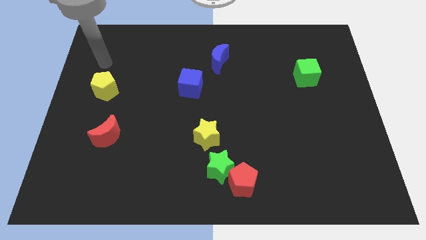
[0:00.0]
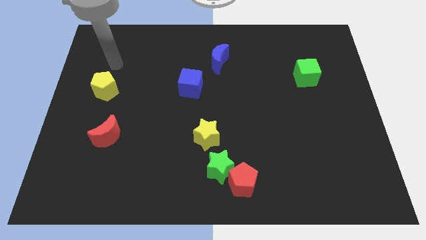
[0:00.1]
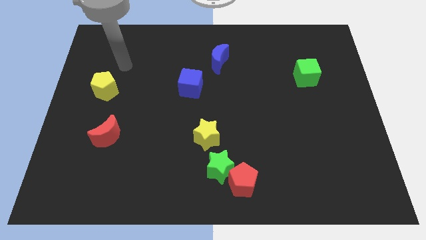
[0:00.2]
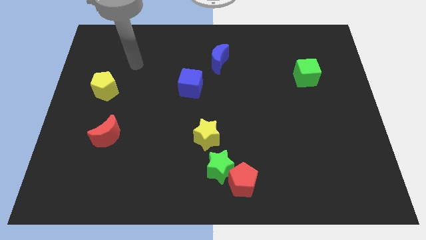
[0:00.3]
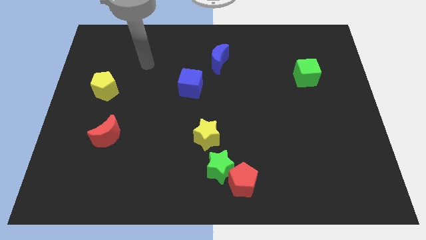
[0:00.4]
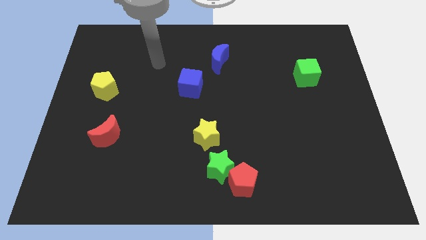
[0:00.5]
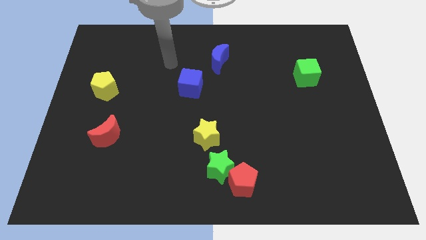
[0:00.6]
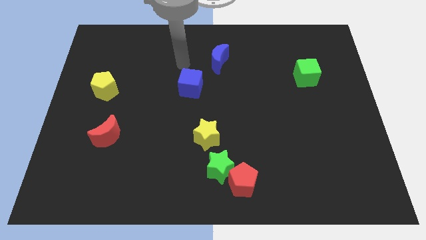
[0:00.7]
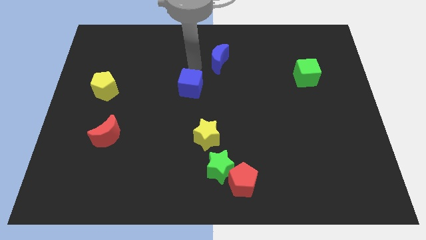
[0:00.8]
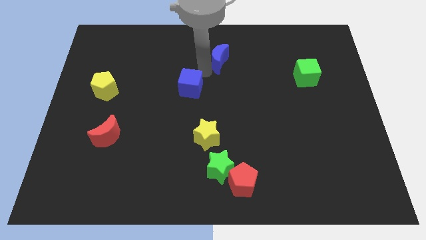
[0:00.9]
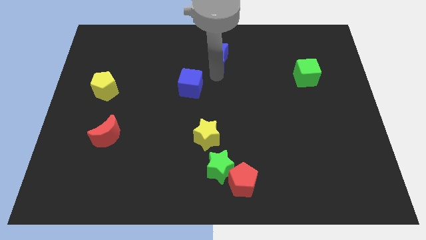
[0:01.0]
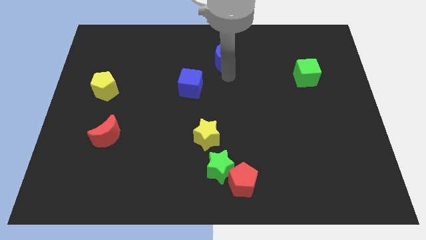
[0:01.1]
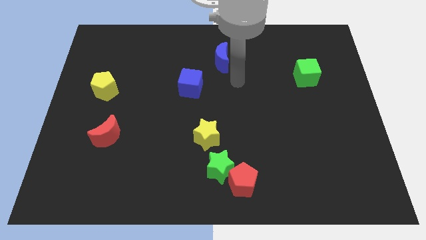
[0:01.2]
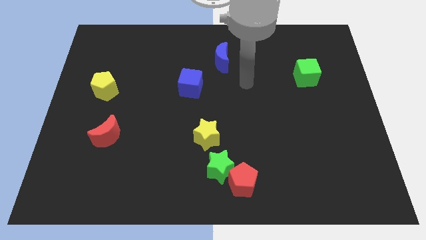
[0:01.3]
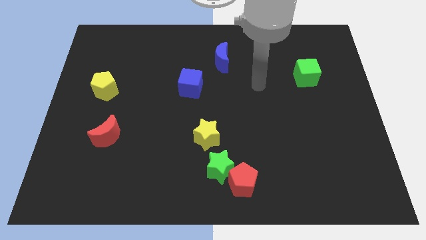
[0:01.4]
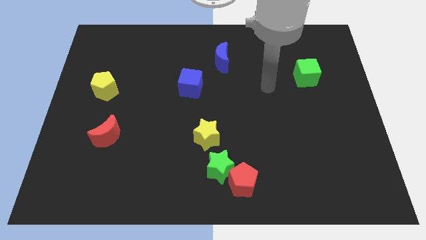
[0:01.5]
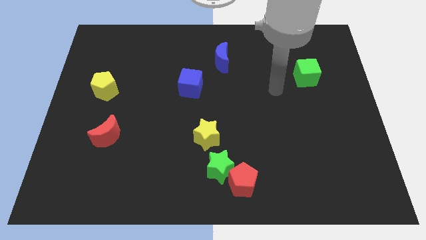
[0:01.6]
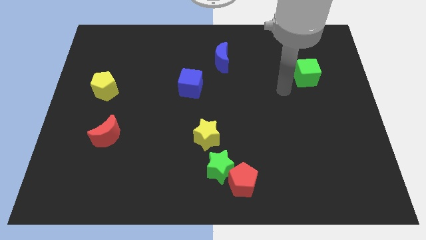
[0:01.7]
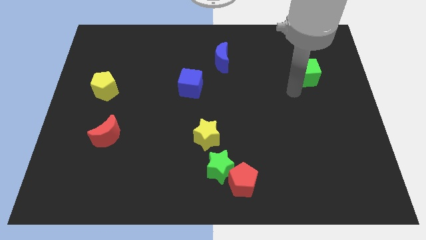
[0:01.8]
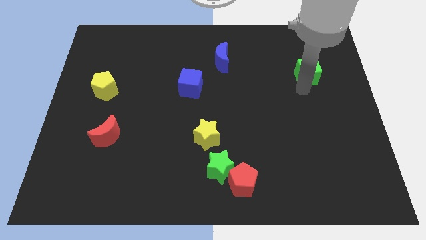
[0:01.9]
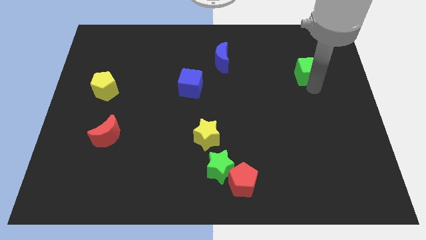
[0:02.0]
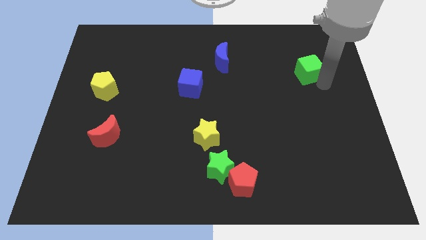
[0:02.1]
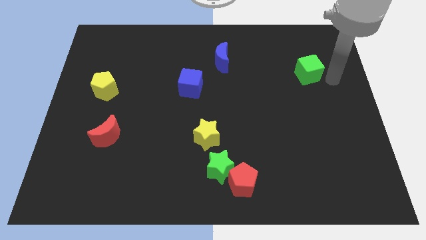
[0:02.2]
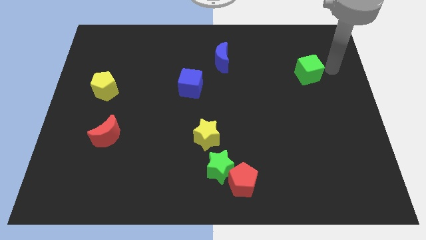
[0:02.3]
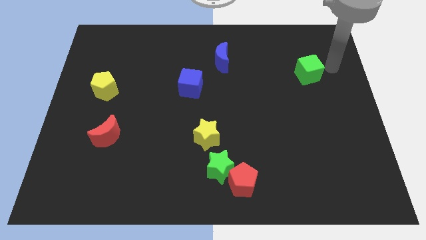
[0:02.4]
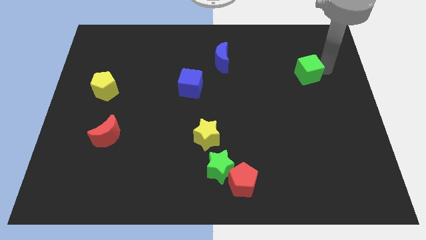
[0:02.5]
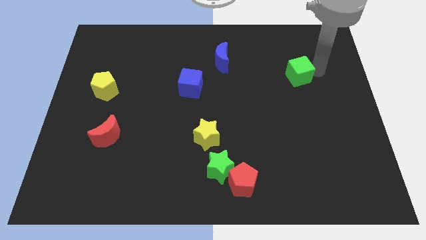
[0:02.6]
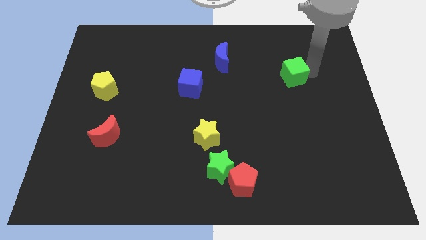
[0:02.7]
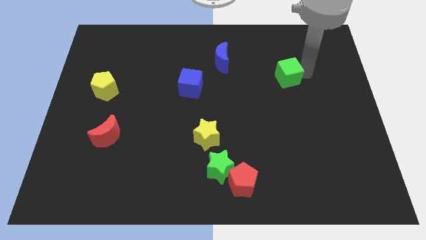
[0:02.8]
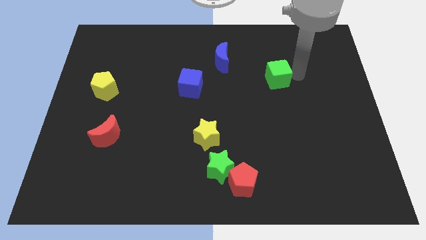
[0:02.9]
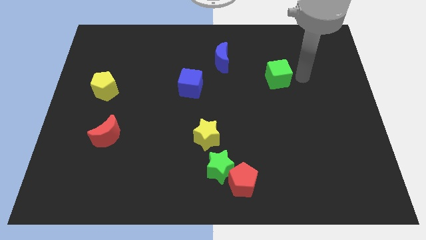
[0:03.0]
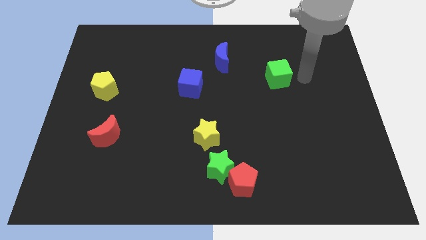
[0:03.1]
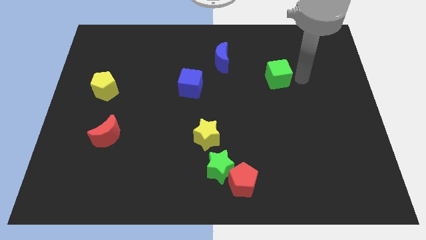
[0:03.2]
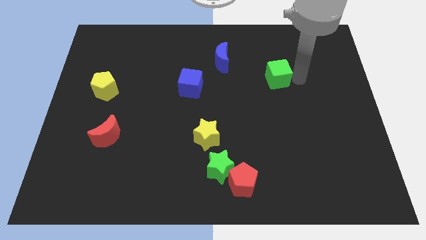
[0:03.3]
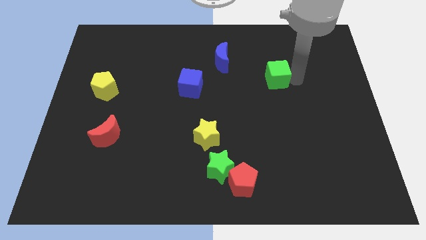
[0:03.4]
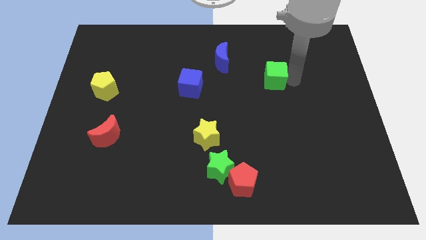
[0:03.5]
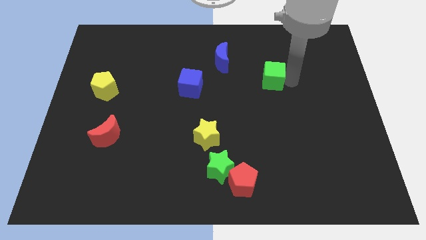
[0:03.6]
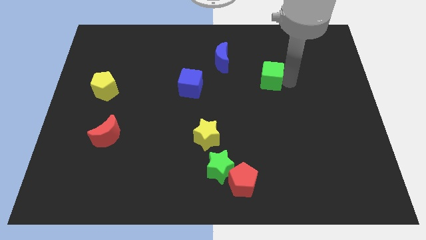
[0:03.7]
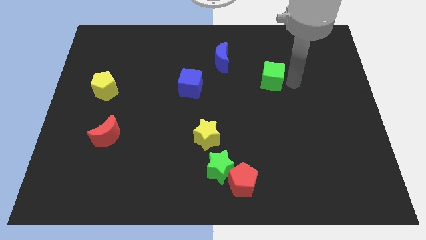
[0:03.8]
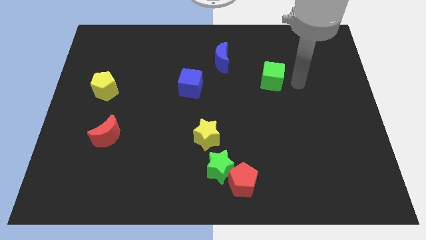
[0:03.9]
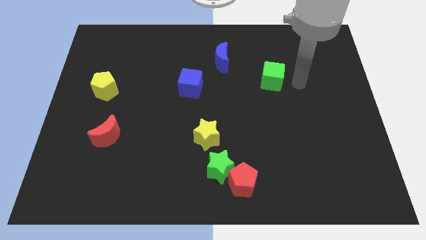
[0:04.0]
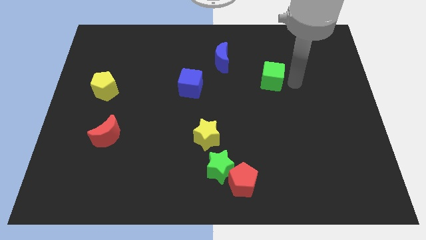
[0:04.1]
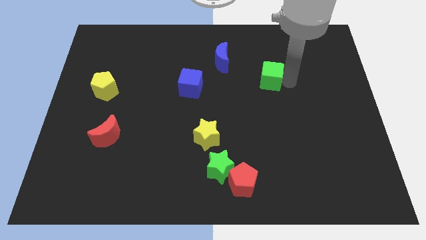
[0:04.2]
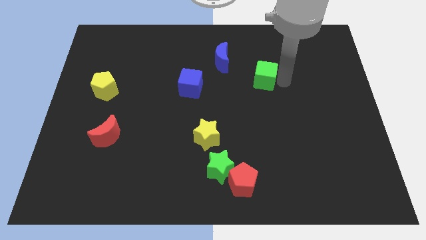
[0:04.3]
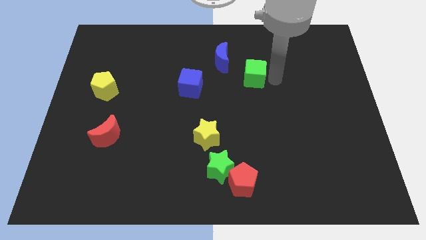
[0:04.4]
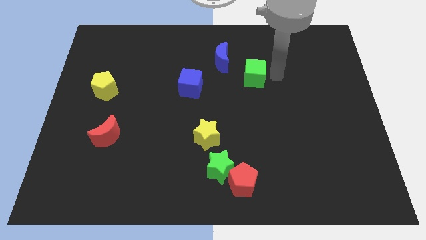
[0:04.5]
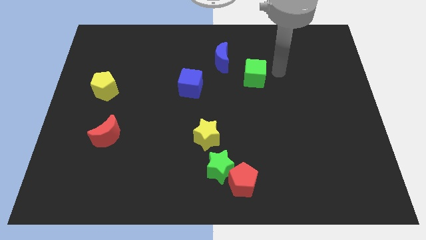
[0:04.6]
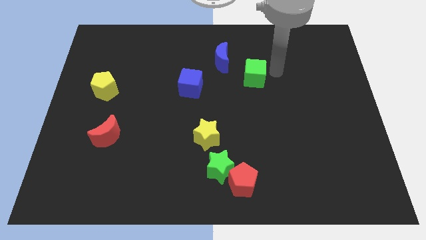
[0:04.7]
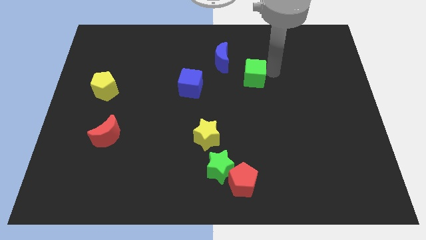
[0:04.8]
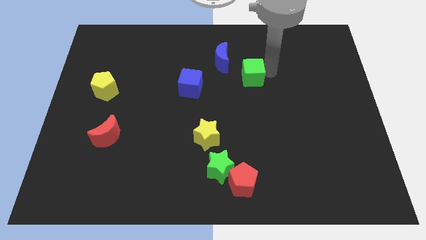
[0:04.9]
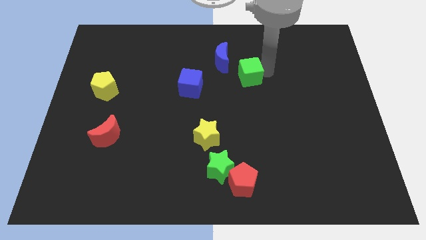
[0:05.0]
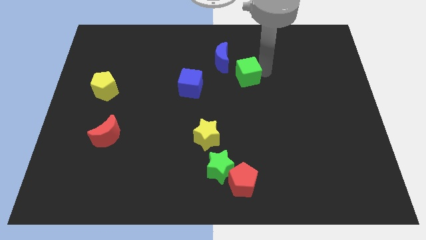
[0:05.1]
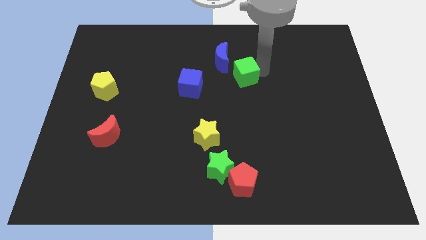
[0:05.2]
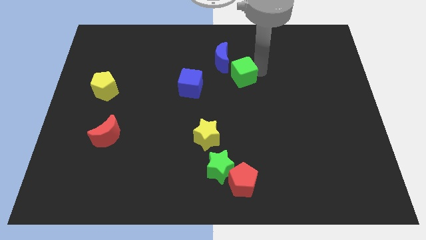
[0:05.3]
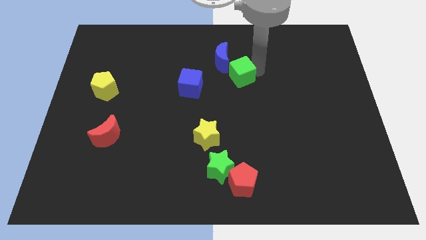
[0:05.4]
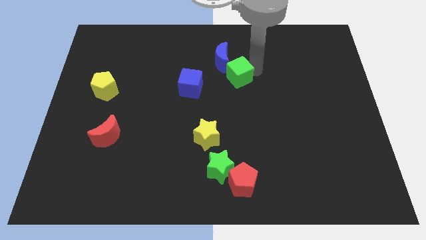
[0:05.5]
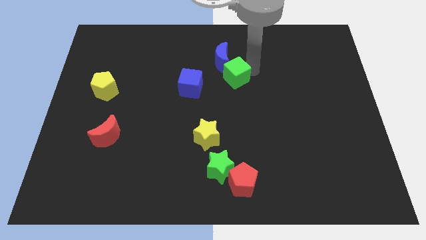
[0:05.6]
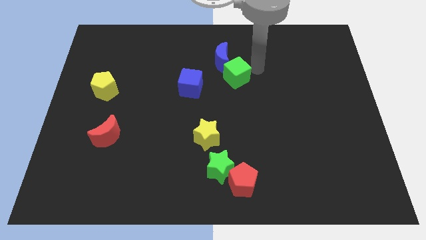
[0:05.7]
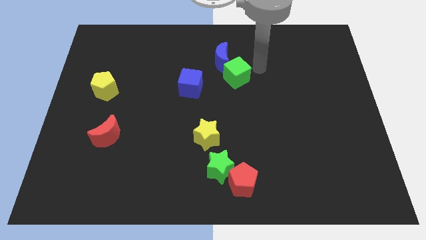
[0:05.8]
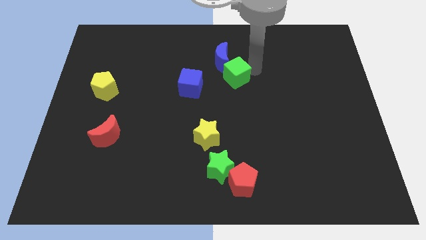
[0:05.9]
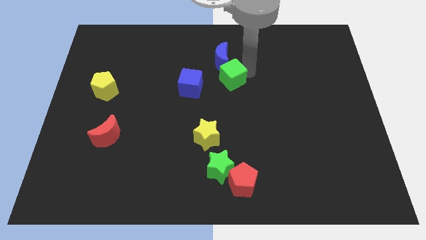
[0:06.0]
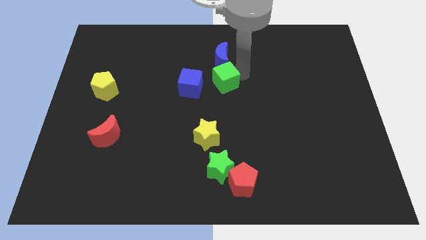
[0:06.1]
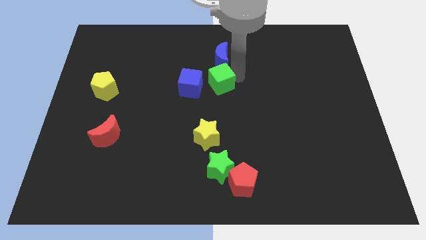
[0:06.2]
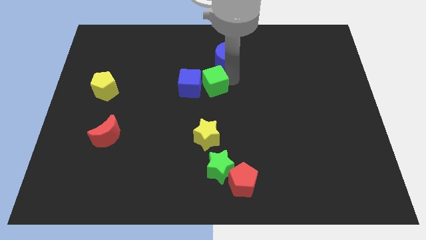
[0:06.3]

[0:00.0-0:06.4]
put the green cube towards the blue cube
